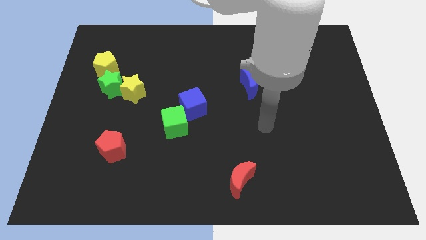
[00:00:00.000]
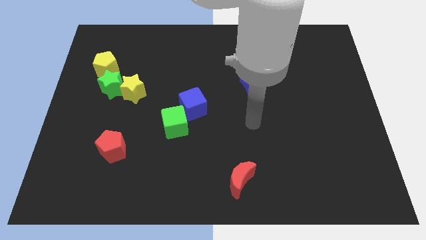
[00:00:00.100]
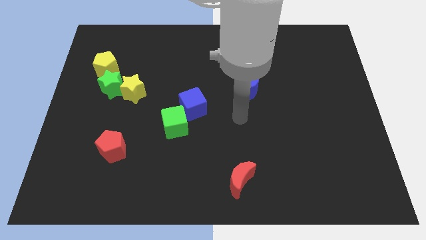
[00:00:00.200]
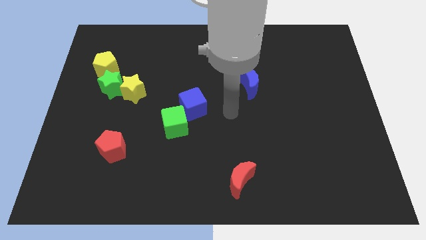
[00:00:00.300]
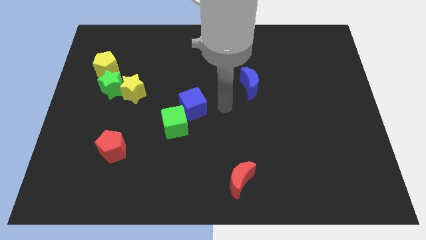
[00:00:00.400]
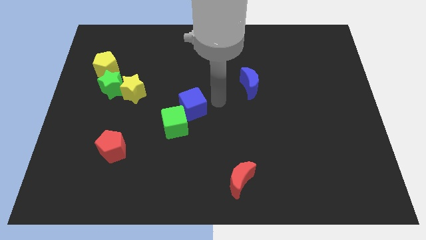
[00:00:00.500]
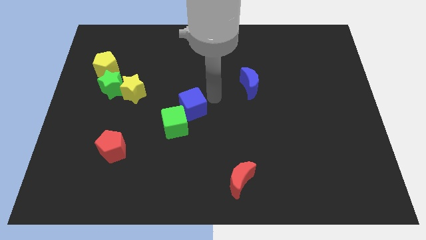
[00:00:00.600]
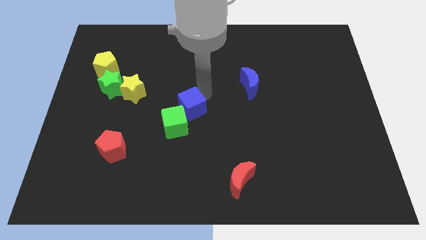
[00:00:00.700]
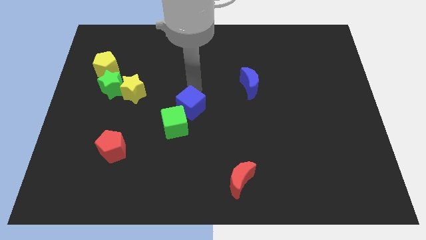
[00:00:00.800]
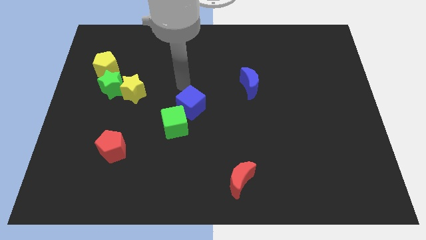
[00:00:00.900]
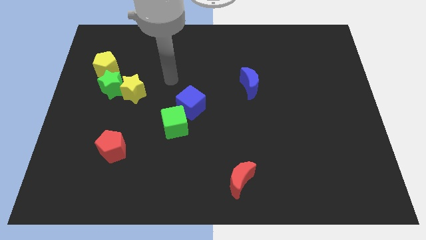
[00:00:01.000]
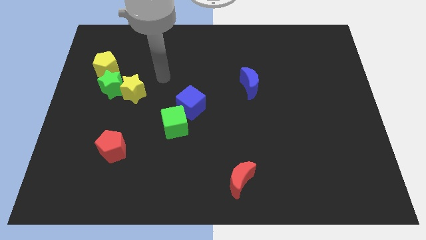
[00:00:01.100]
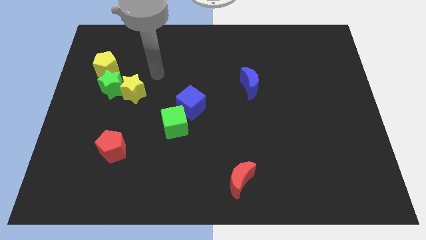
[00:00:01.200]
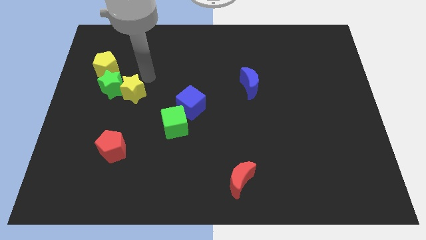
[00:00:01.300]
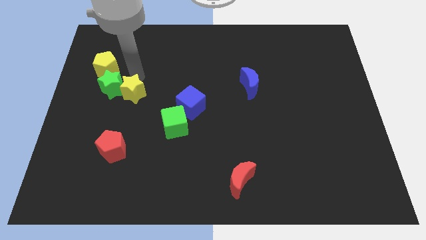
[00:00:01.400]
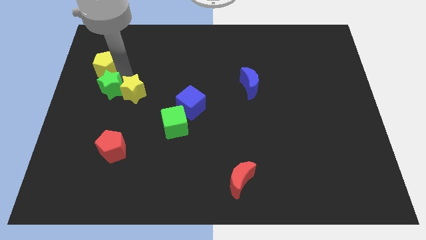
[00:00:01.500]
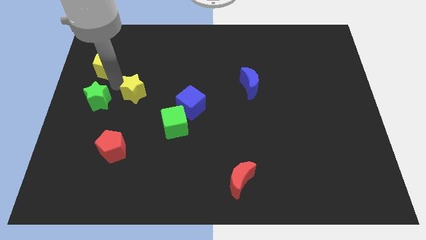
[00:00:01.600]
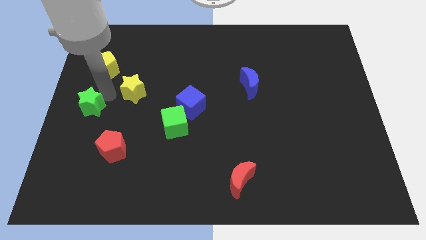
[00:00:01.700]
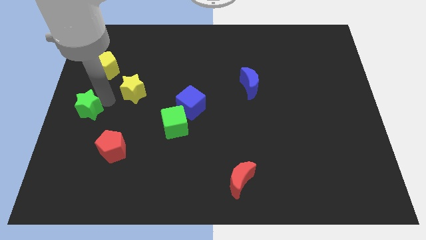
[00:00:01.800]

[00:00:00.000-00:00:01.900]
move the yellow star away from the green star

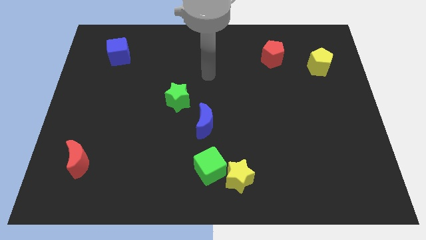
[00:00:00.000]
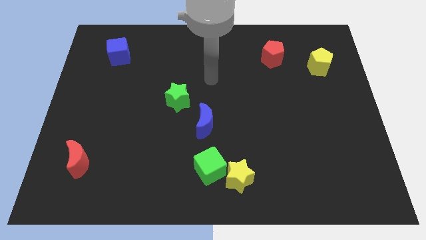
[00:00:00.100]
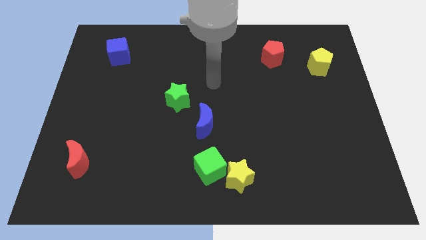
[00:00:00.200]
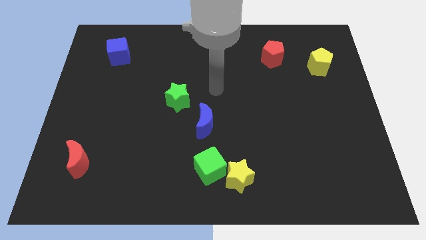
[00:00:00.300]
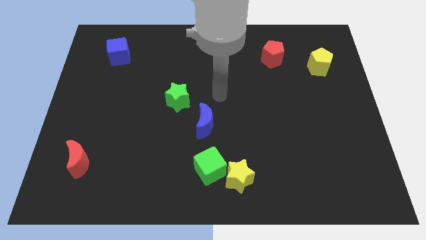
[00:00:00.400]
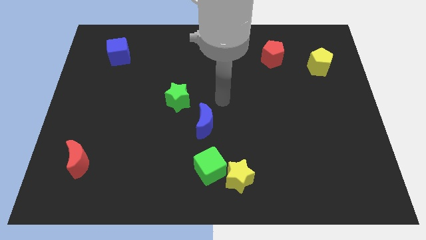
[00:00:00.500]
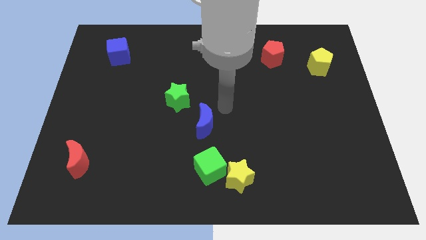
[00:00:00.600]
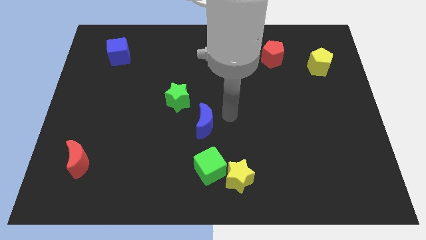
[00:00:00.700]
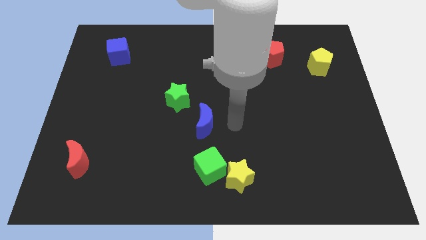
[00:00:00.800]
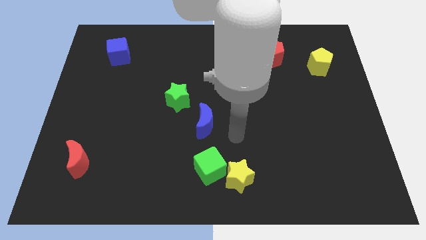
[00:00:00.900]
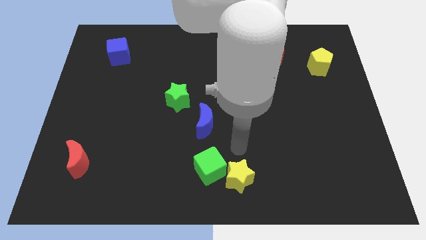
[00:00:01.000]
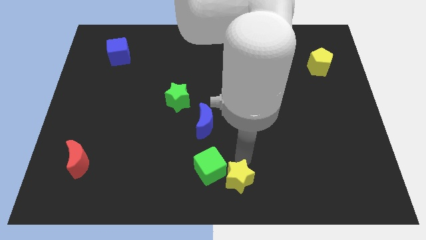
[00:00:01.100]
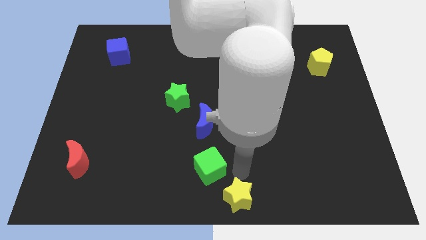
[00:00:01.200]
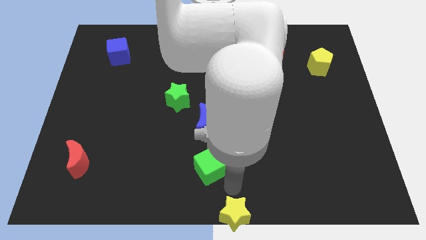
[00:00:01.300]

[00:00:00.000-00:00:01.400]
move the green cube away from the yellow star

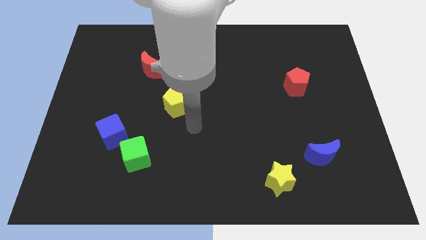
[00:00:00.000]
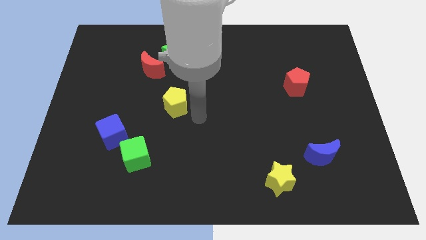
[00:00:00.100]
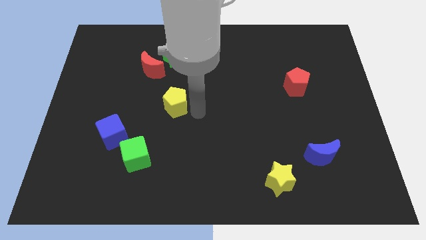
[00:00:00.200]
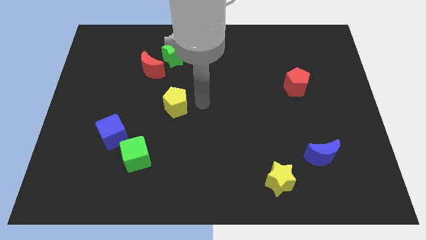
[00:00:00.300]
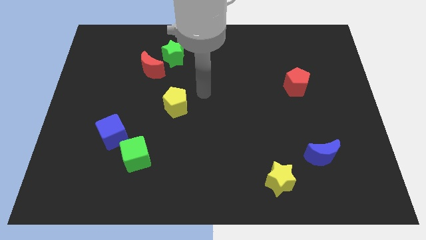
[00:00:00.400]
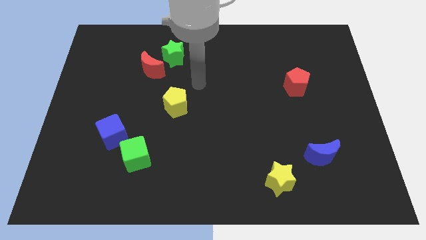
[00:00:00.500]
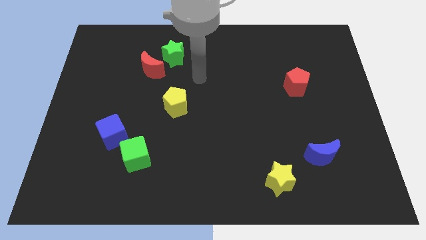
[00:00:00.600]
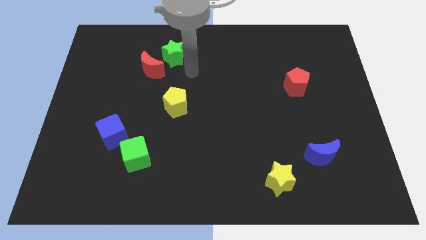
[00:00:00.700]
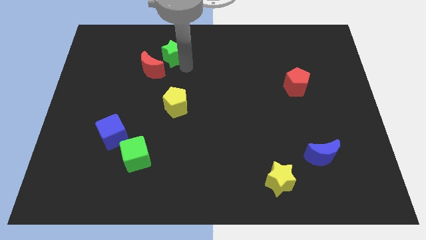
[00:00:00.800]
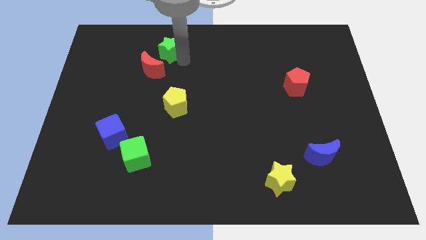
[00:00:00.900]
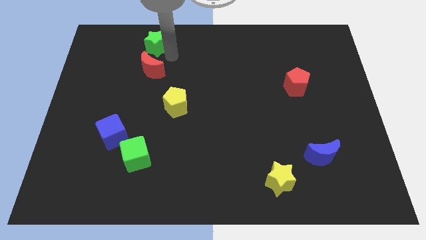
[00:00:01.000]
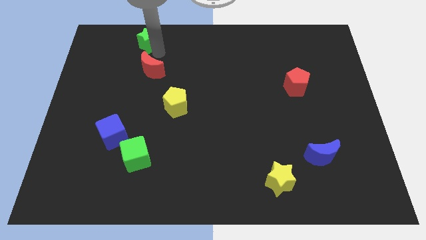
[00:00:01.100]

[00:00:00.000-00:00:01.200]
pull the red moon apart from the green star

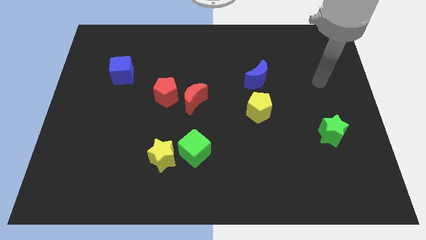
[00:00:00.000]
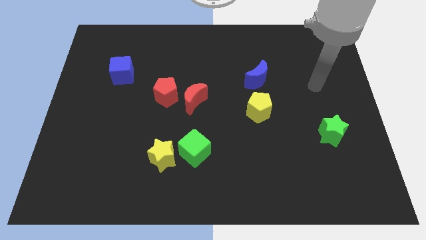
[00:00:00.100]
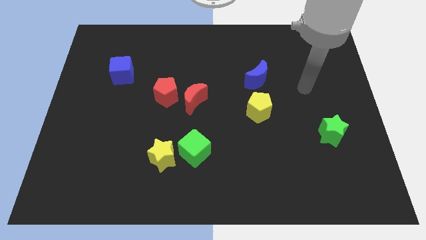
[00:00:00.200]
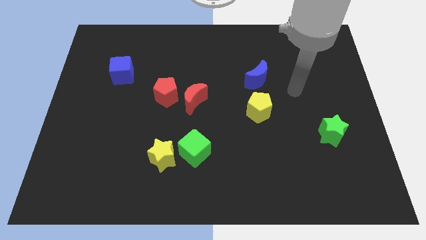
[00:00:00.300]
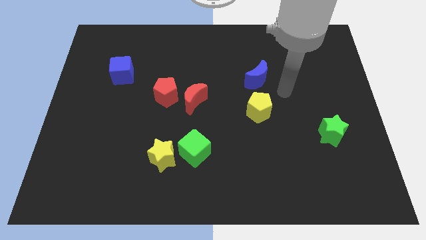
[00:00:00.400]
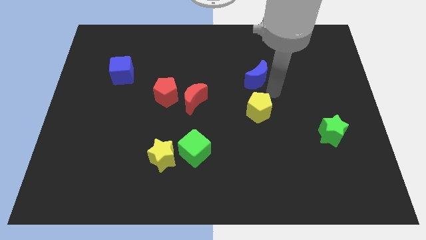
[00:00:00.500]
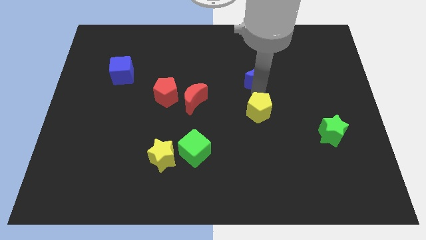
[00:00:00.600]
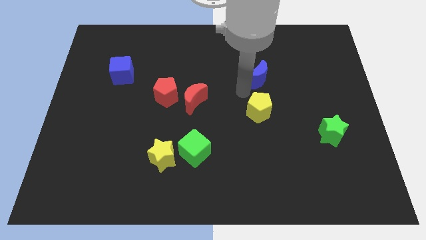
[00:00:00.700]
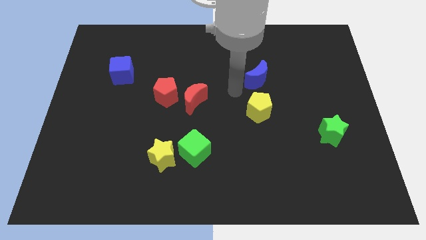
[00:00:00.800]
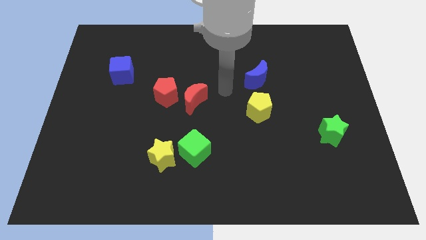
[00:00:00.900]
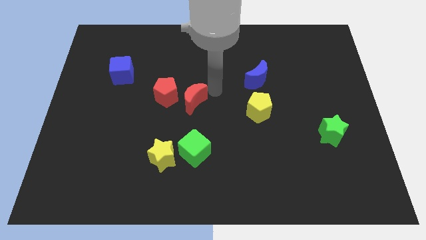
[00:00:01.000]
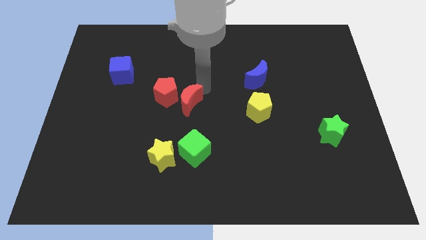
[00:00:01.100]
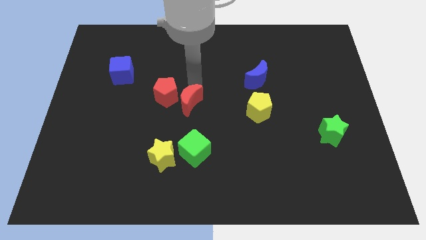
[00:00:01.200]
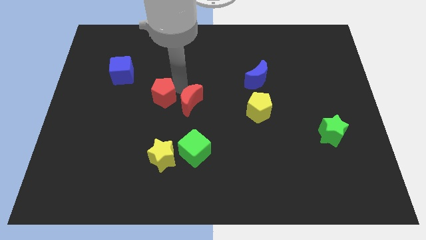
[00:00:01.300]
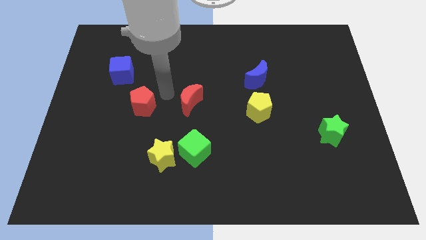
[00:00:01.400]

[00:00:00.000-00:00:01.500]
separate the red moon from the red pentagon

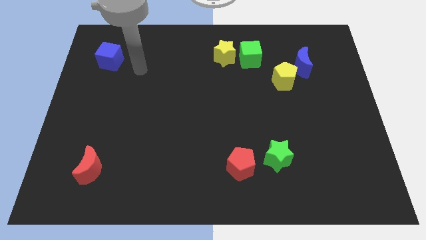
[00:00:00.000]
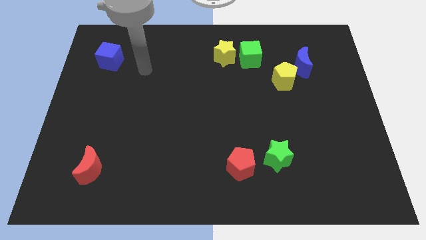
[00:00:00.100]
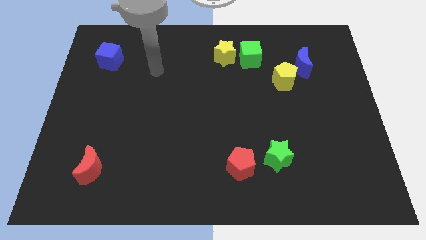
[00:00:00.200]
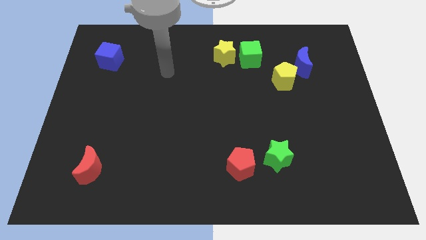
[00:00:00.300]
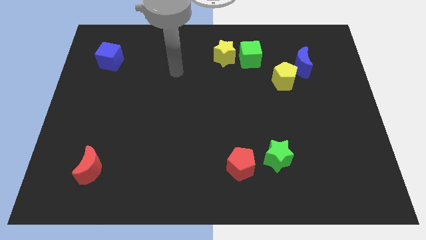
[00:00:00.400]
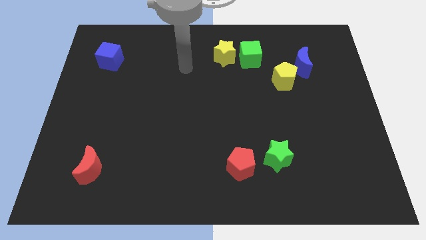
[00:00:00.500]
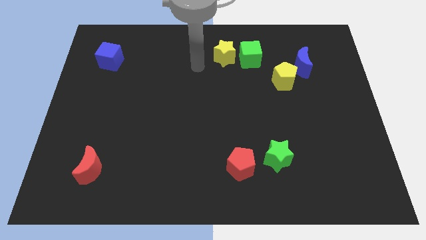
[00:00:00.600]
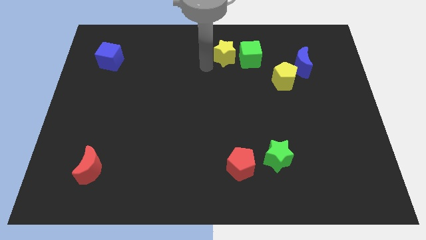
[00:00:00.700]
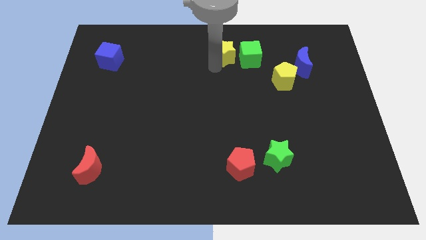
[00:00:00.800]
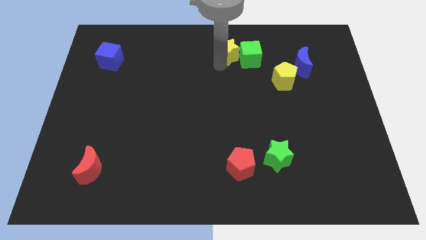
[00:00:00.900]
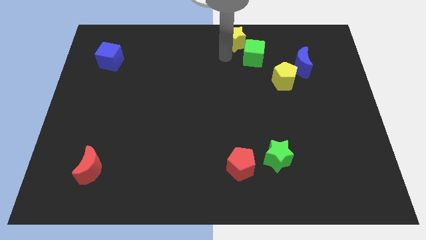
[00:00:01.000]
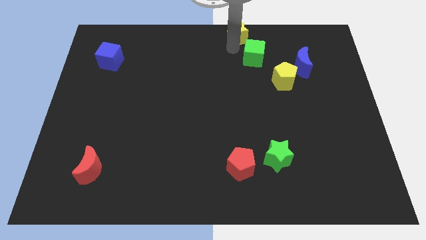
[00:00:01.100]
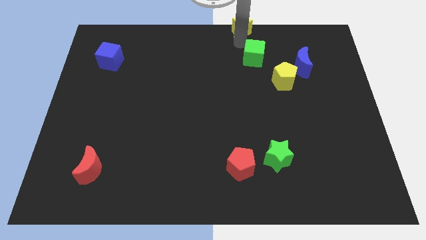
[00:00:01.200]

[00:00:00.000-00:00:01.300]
pull the green cube apart from the yellow star

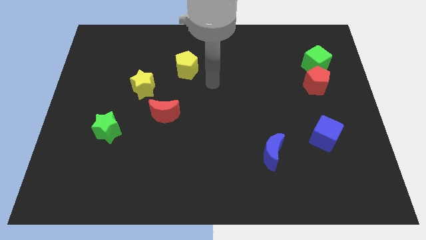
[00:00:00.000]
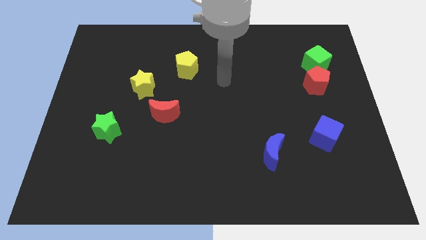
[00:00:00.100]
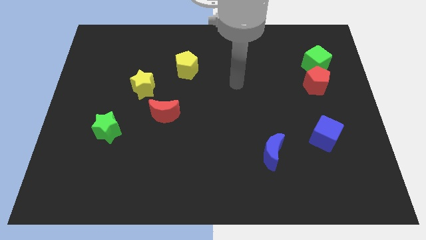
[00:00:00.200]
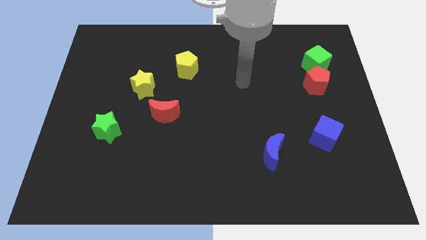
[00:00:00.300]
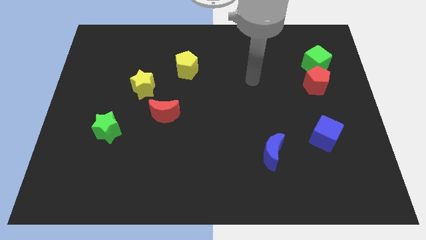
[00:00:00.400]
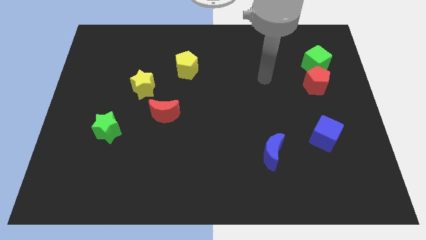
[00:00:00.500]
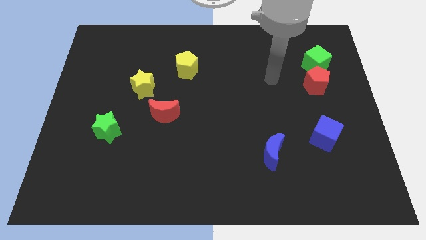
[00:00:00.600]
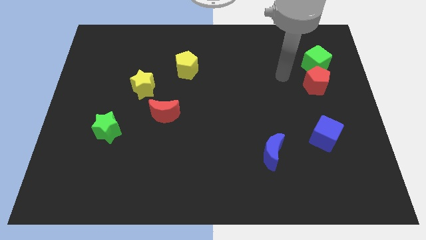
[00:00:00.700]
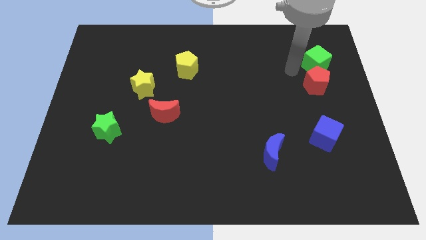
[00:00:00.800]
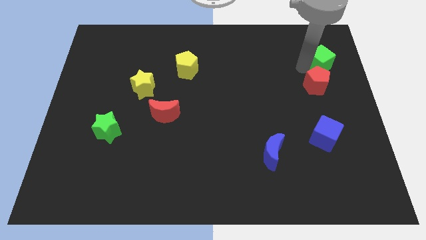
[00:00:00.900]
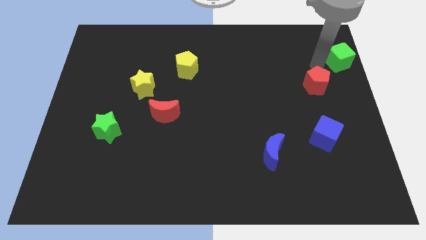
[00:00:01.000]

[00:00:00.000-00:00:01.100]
separate the red pentagon from the green cube

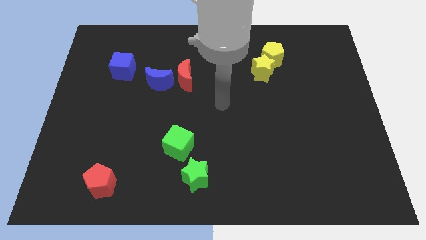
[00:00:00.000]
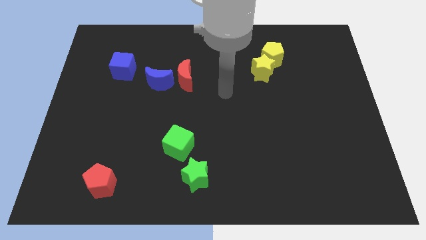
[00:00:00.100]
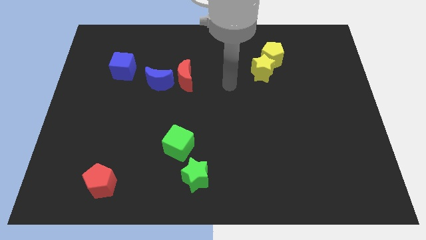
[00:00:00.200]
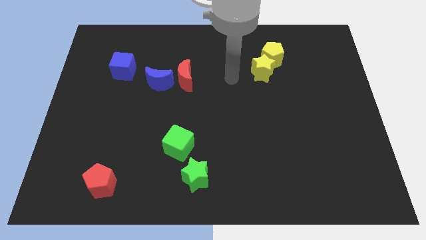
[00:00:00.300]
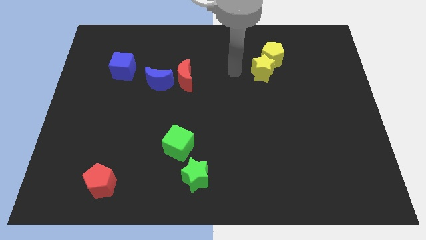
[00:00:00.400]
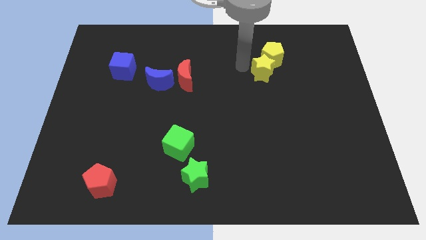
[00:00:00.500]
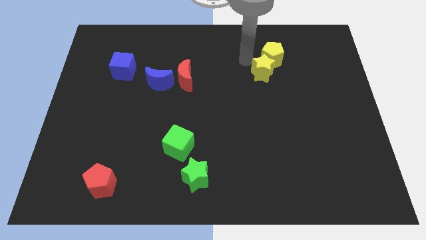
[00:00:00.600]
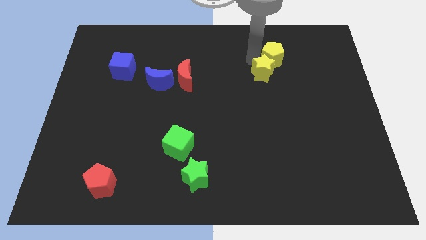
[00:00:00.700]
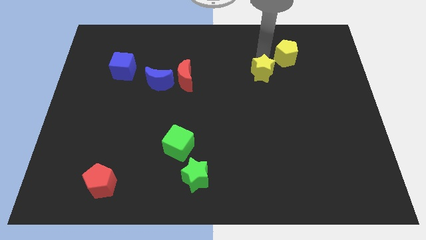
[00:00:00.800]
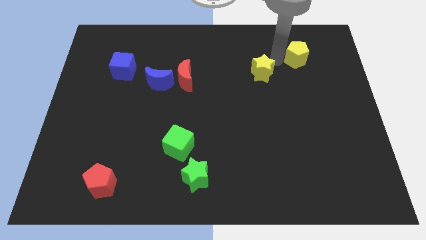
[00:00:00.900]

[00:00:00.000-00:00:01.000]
move the yellow star away from the yellow pentagon
